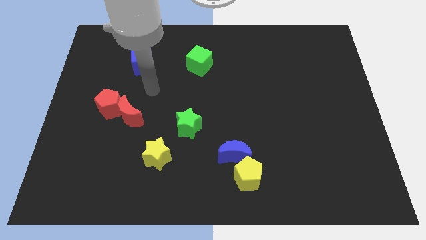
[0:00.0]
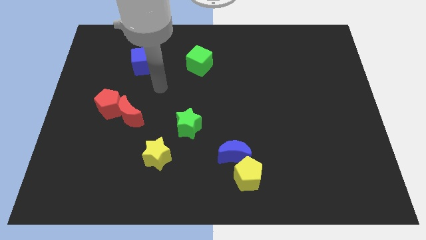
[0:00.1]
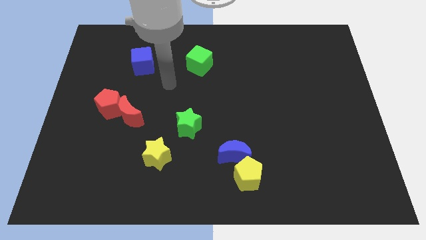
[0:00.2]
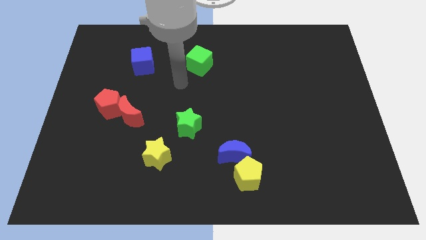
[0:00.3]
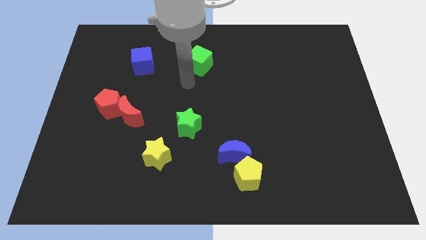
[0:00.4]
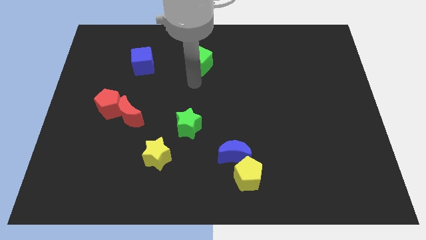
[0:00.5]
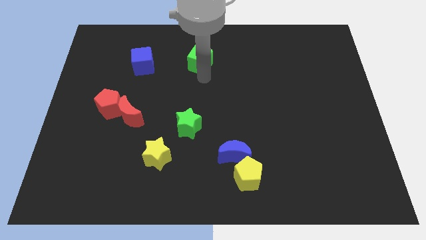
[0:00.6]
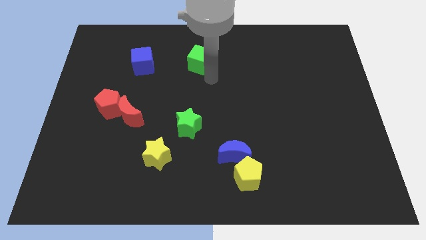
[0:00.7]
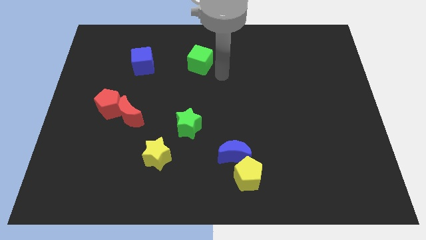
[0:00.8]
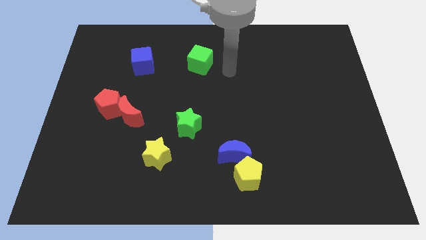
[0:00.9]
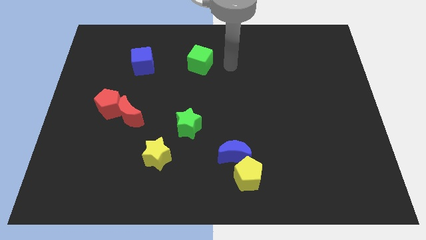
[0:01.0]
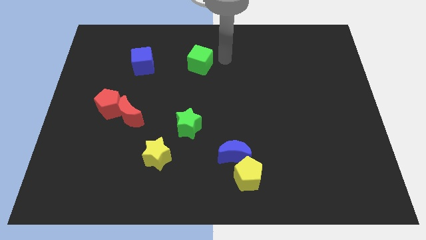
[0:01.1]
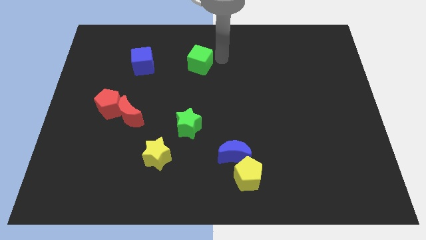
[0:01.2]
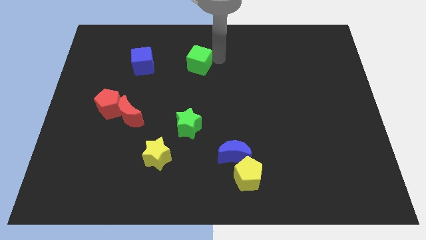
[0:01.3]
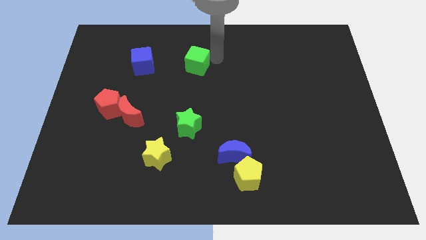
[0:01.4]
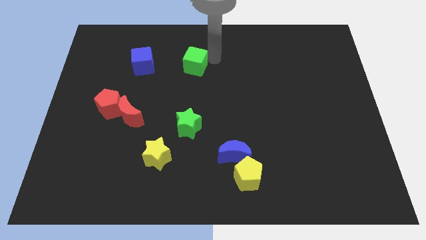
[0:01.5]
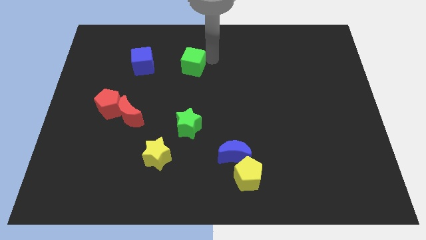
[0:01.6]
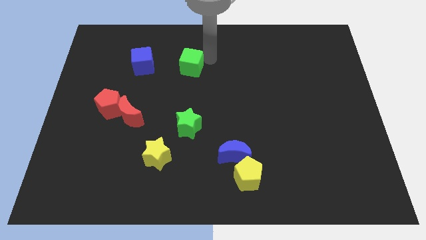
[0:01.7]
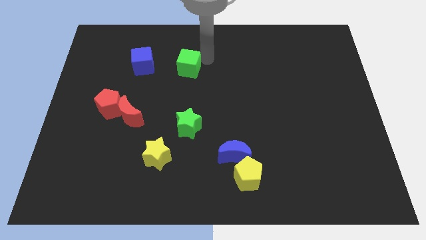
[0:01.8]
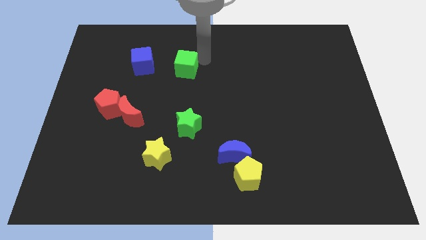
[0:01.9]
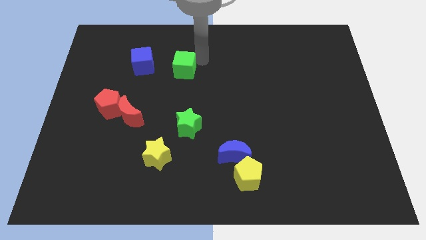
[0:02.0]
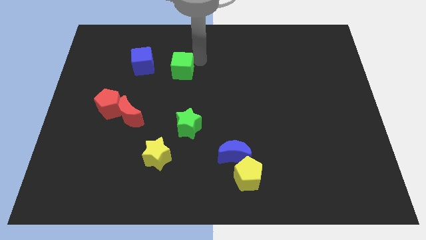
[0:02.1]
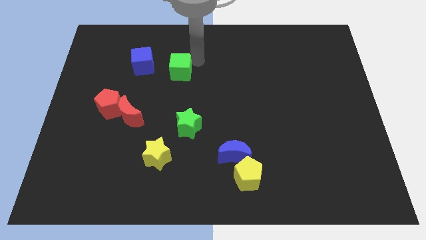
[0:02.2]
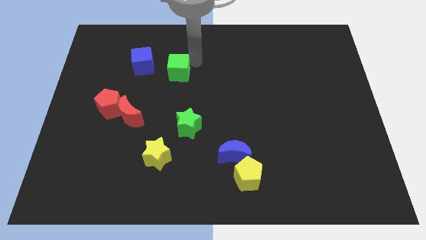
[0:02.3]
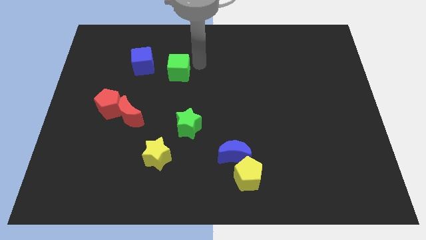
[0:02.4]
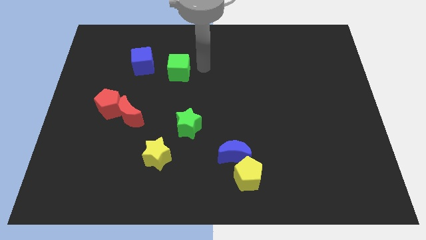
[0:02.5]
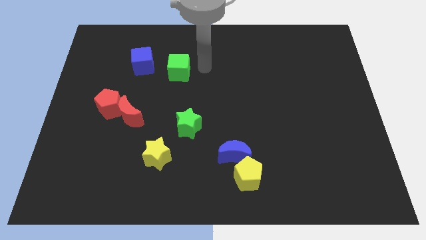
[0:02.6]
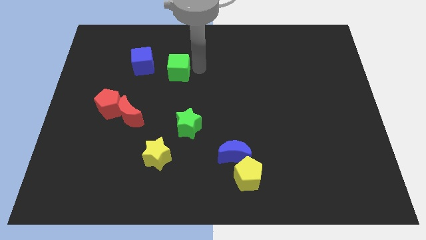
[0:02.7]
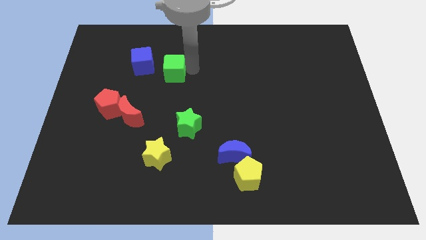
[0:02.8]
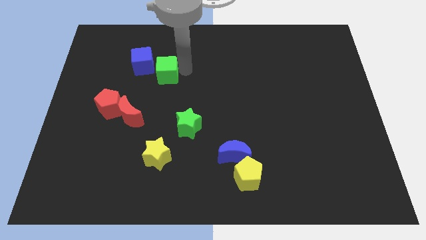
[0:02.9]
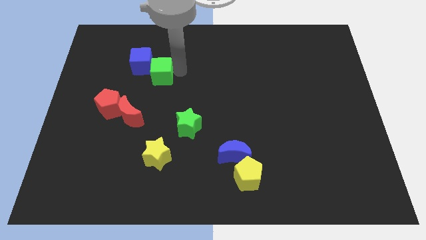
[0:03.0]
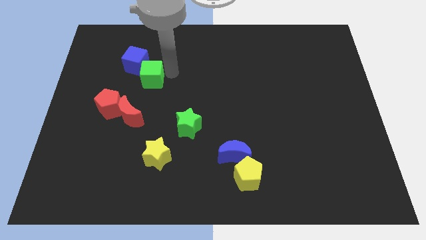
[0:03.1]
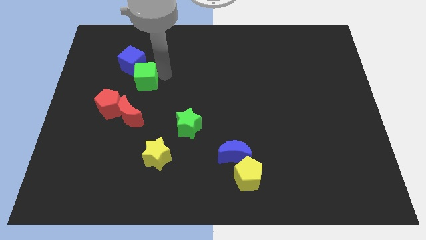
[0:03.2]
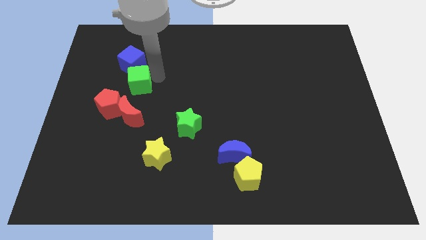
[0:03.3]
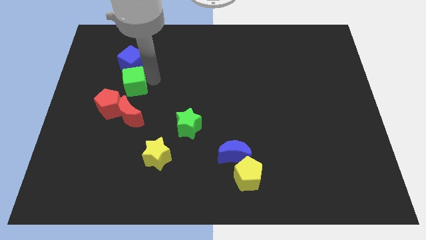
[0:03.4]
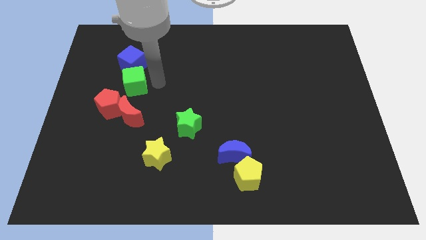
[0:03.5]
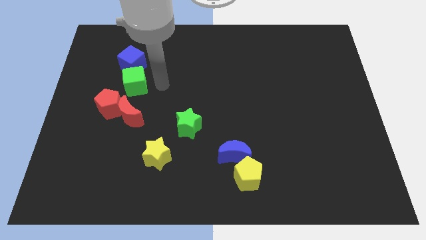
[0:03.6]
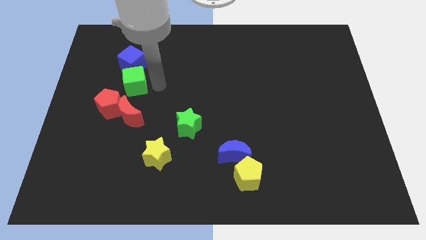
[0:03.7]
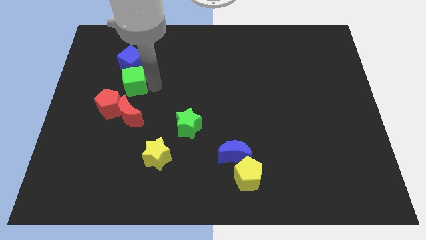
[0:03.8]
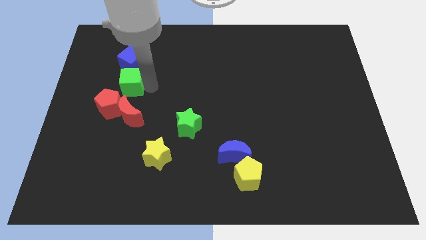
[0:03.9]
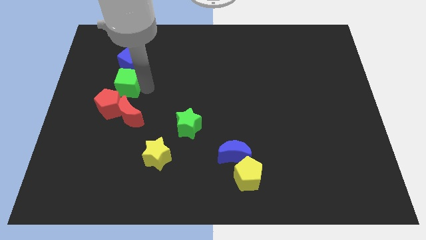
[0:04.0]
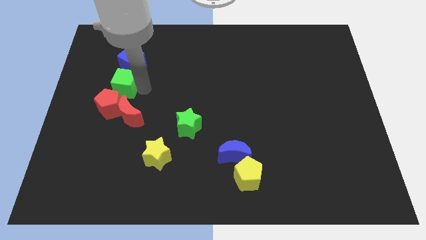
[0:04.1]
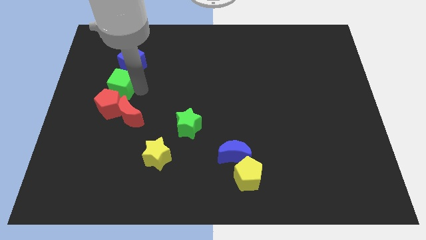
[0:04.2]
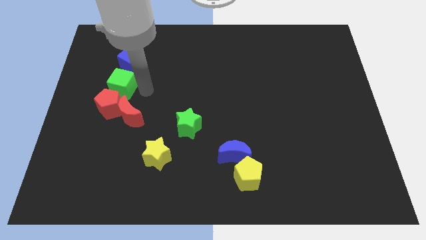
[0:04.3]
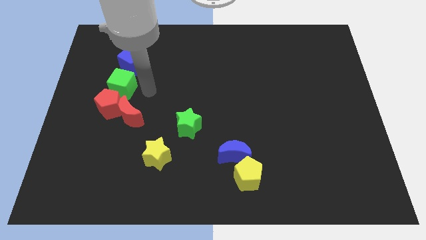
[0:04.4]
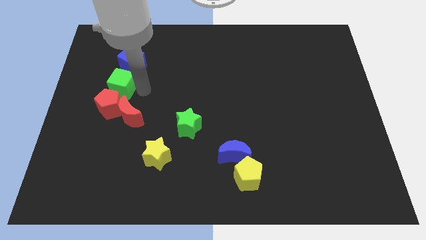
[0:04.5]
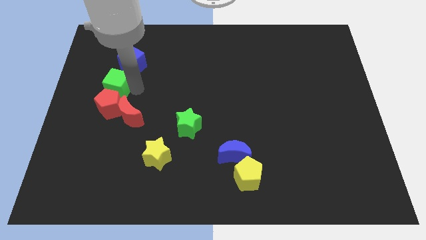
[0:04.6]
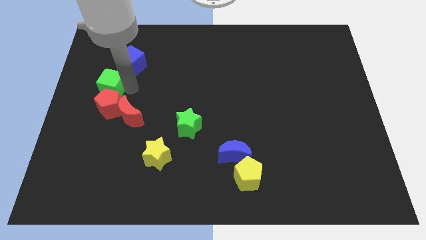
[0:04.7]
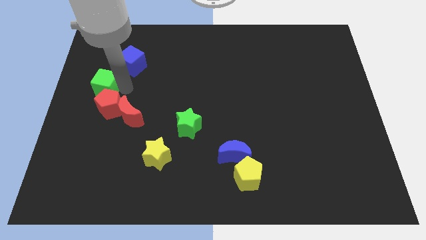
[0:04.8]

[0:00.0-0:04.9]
move the green cube to the left side of the board
